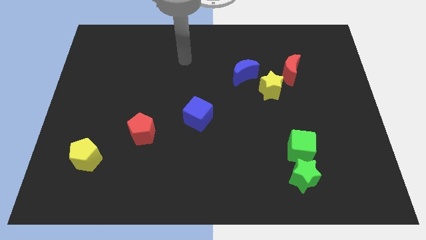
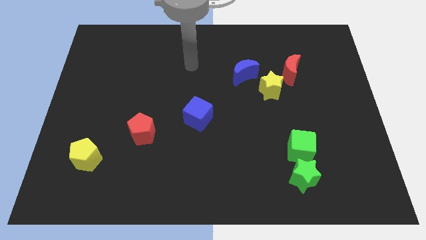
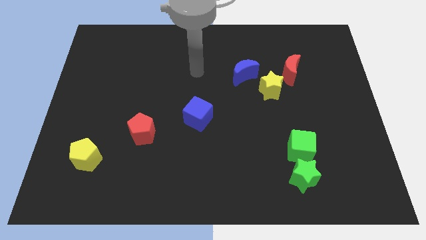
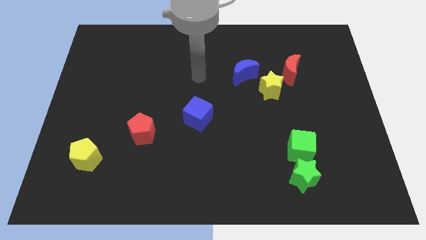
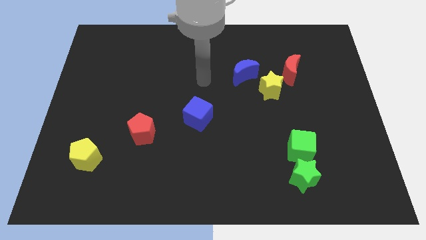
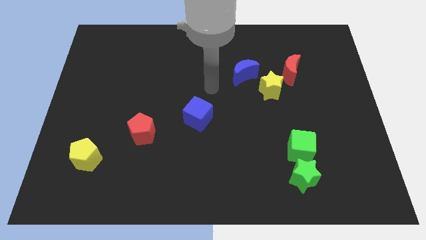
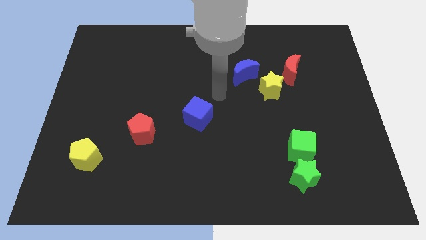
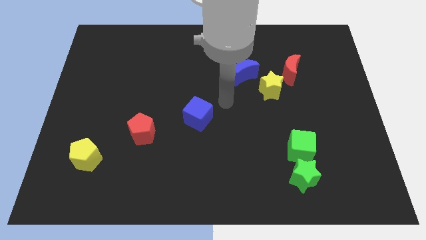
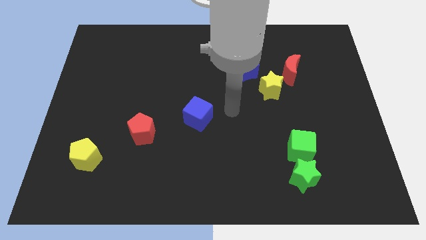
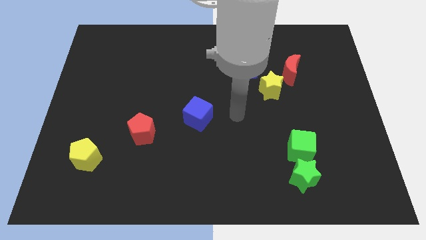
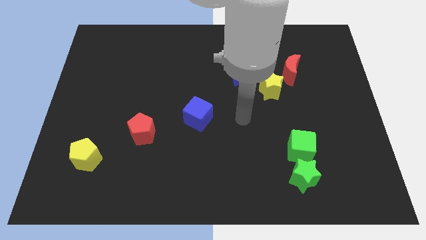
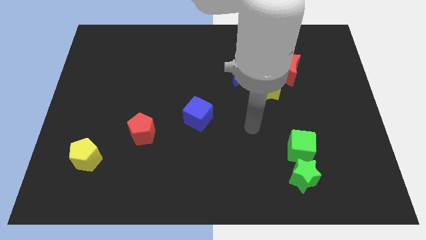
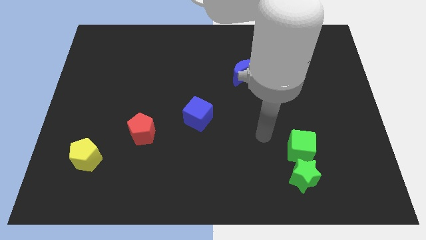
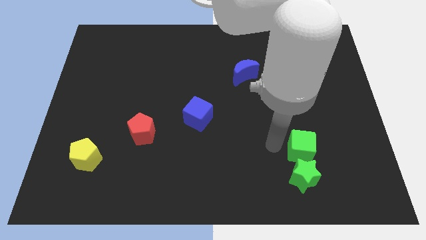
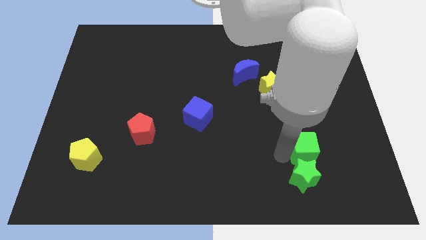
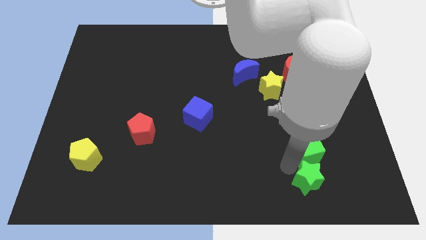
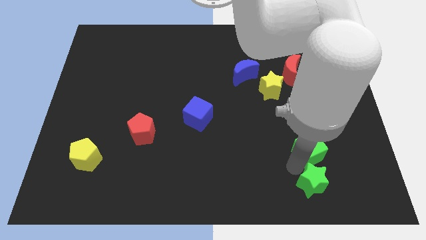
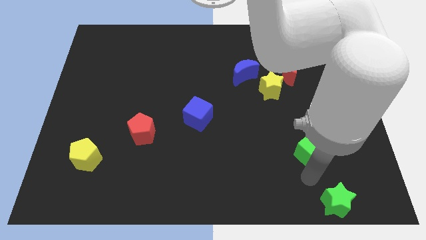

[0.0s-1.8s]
separate the green cube from the green star

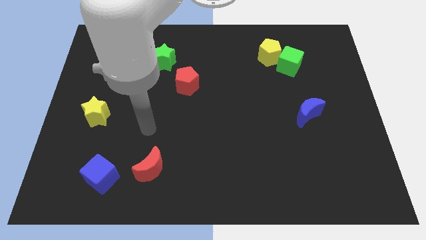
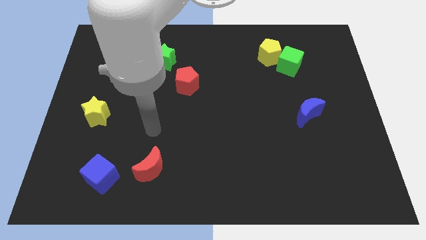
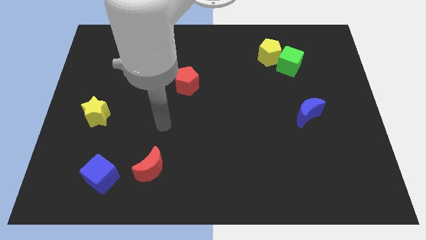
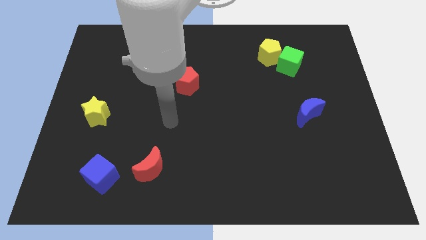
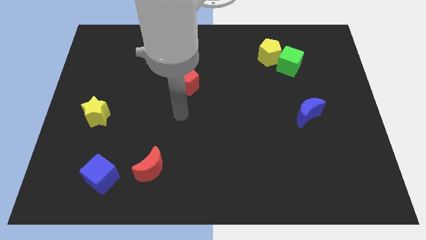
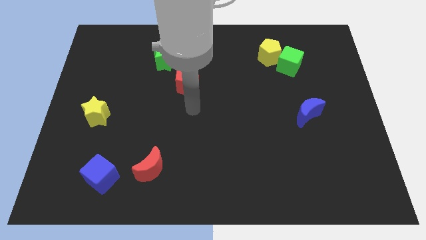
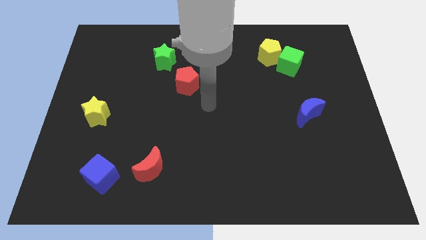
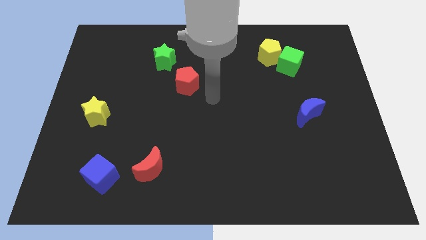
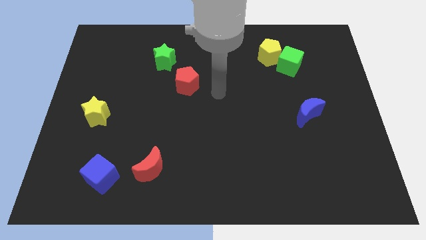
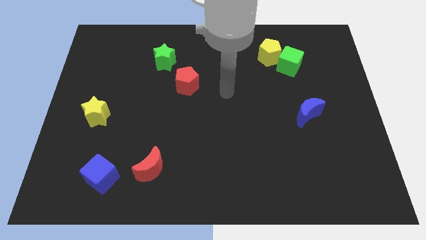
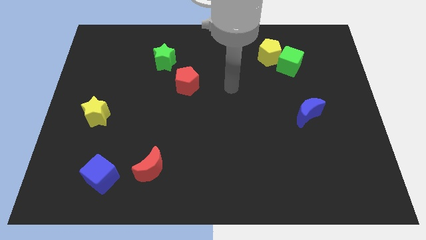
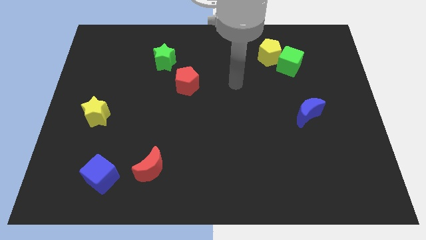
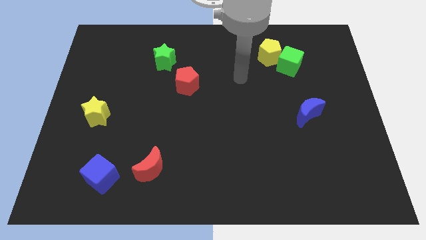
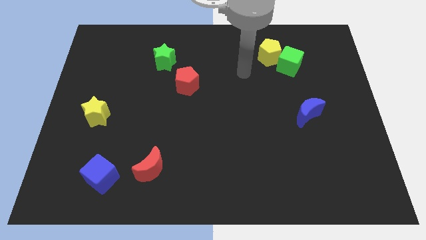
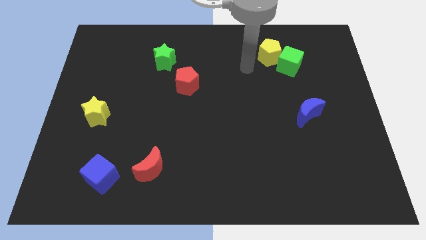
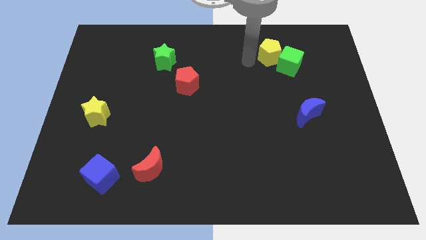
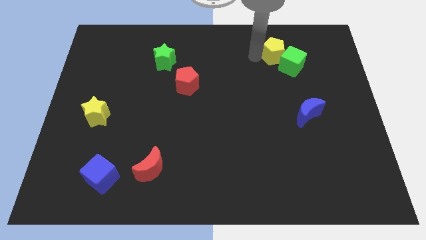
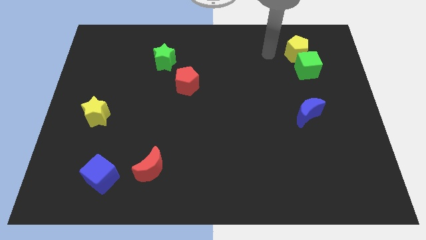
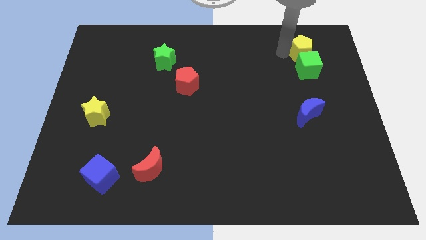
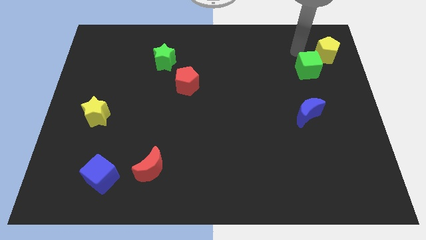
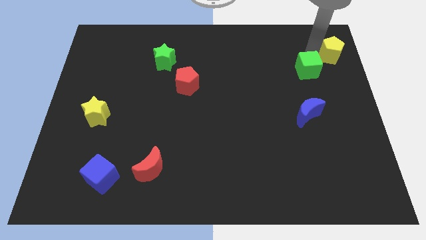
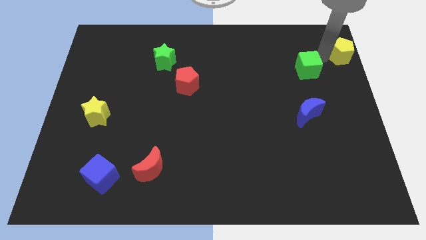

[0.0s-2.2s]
pull the green cube apart from the yellow pentagon

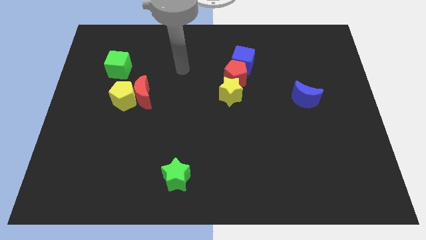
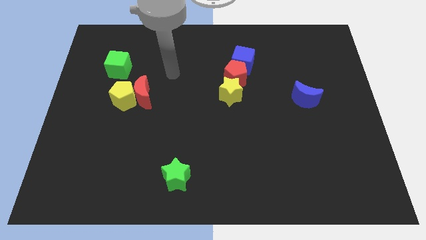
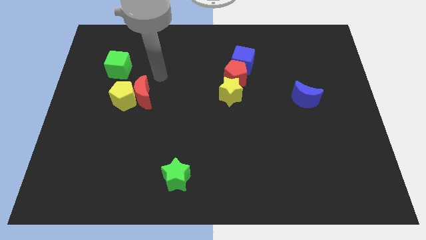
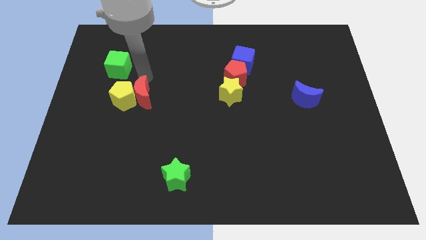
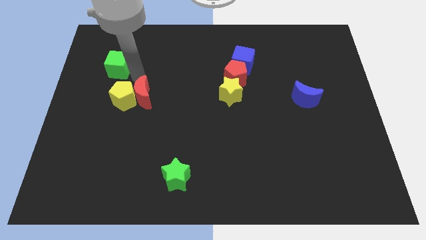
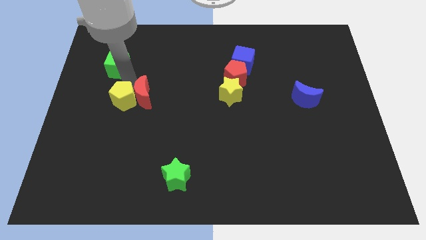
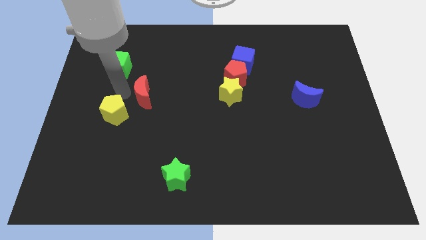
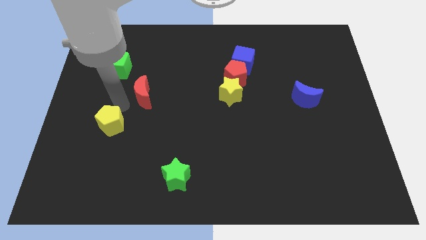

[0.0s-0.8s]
move the red moon away from the yellow pentagon

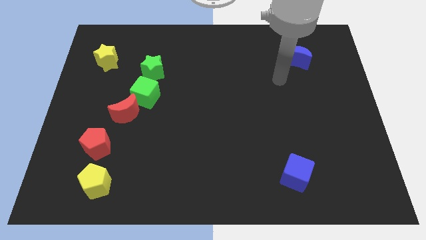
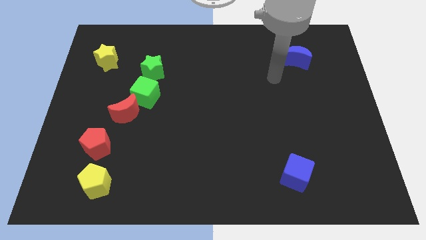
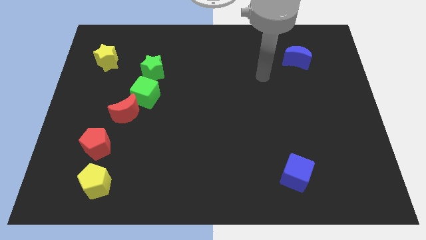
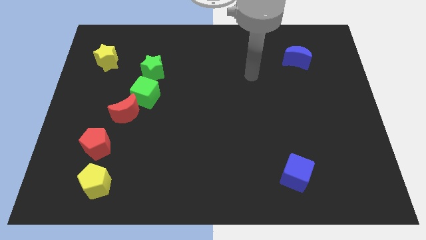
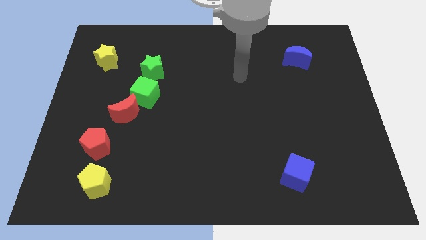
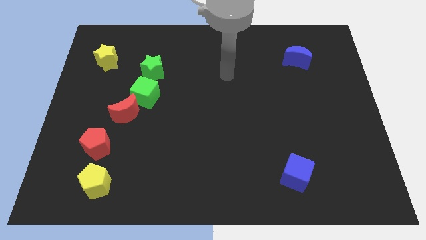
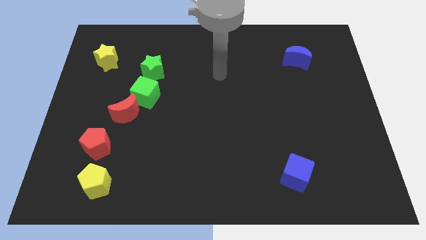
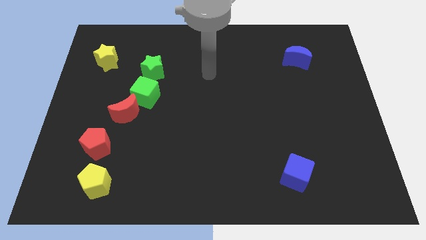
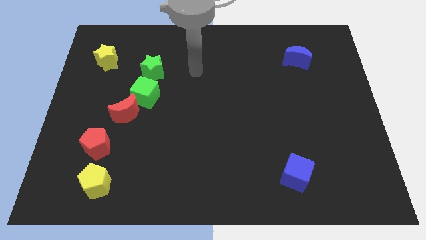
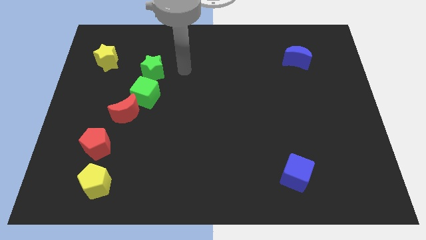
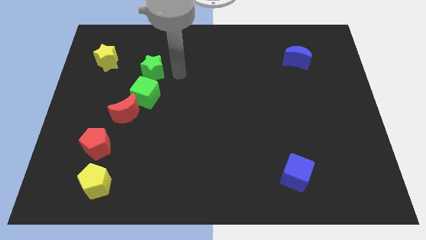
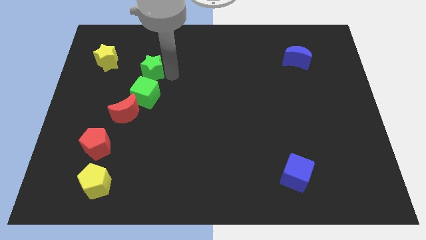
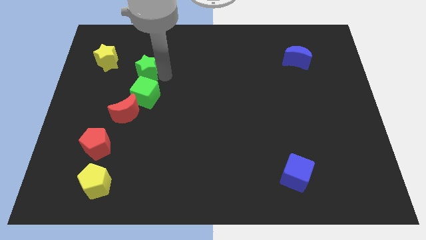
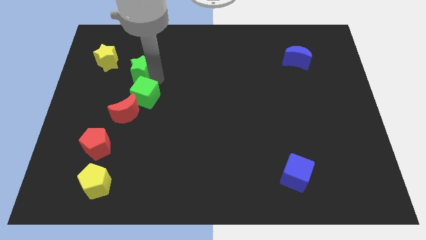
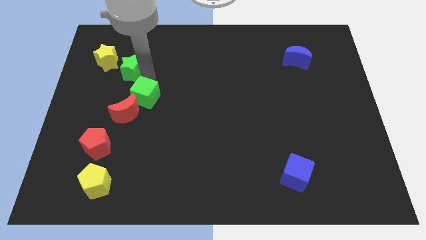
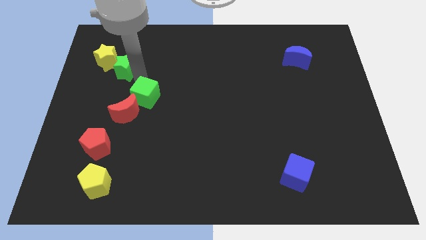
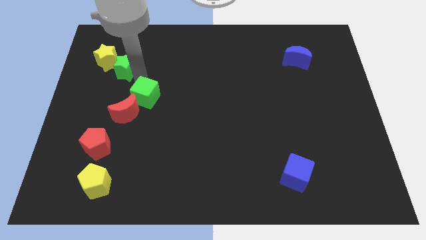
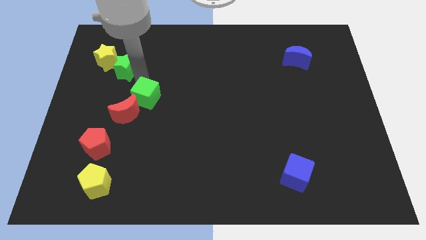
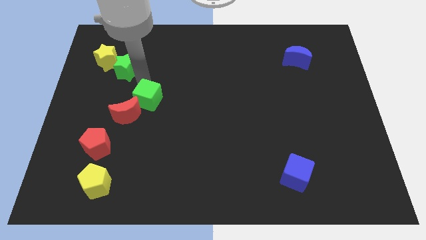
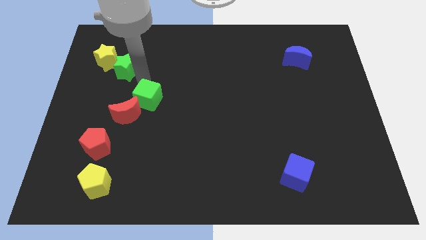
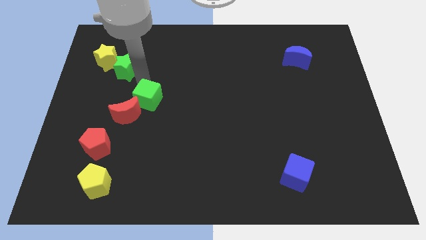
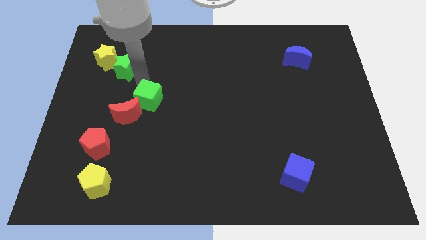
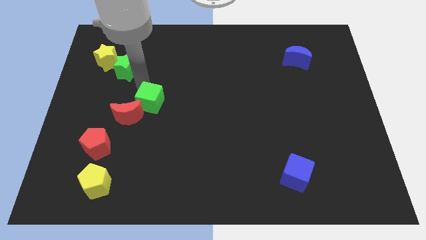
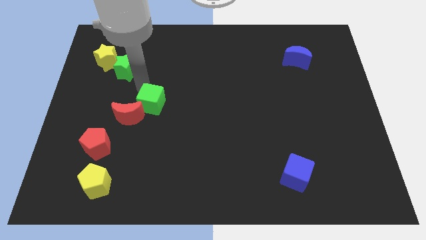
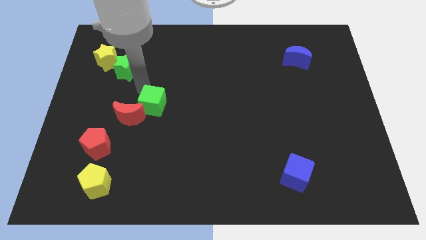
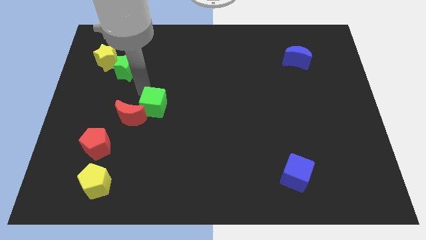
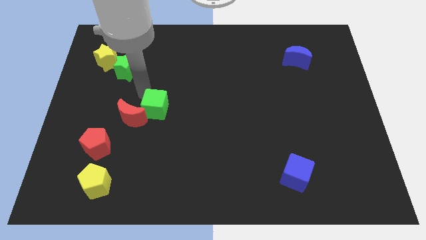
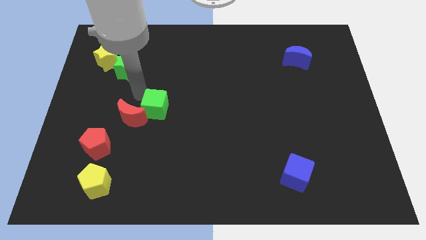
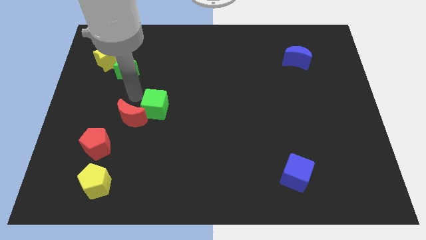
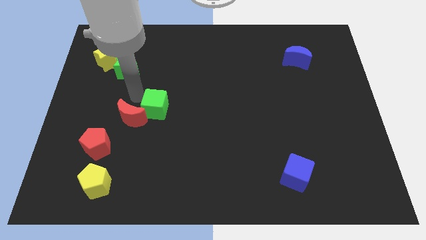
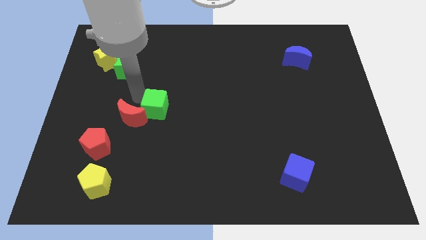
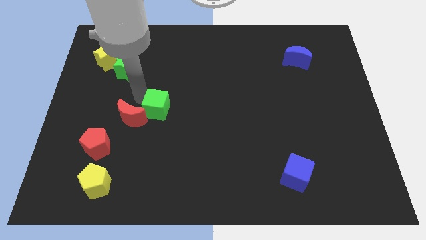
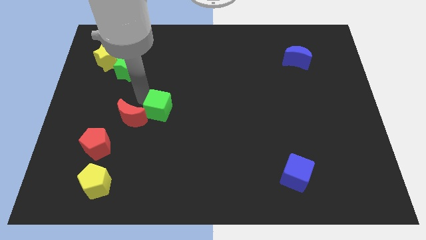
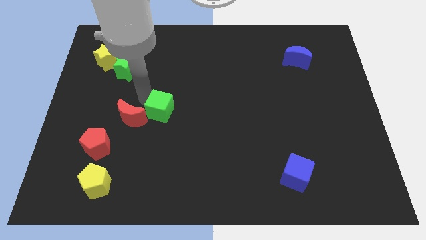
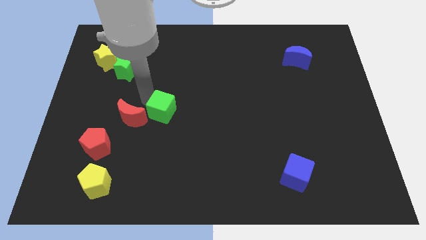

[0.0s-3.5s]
move the green cube away from the red moon and green star

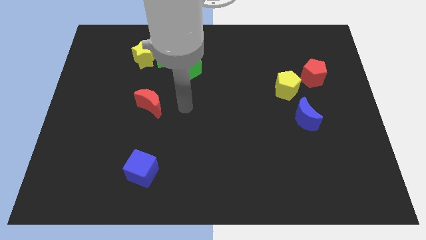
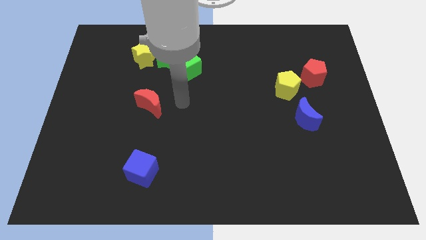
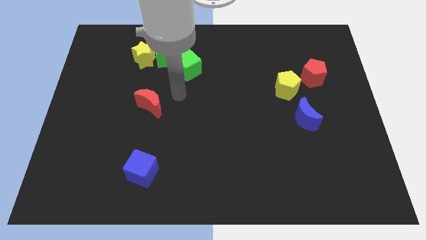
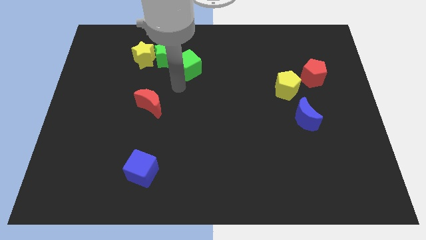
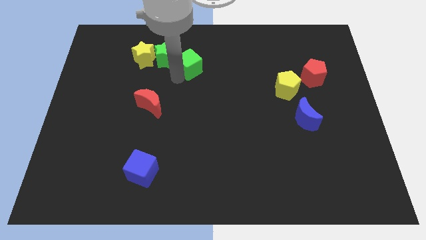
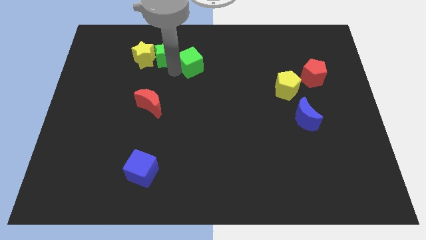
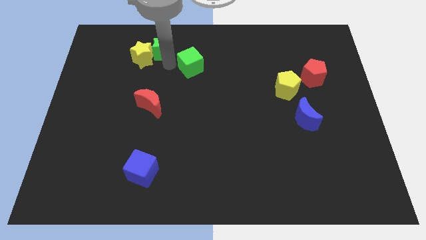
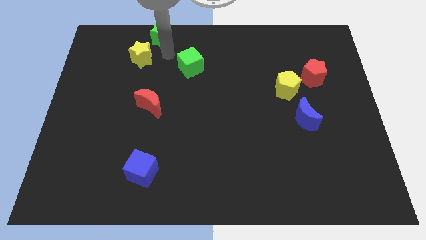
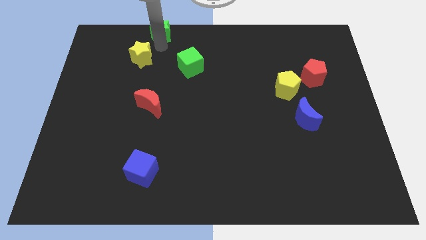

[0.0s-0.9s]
separate the yellow star from the green star

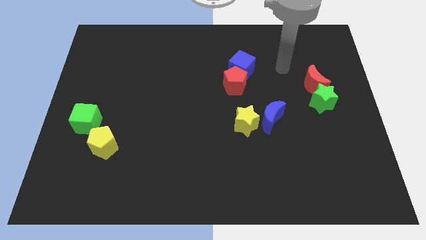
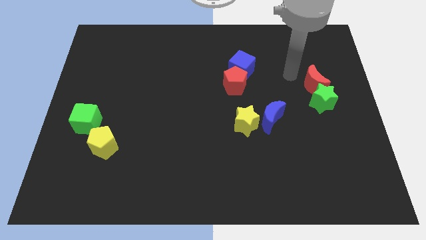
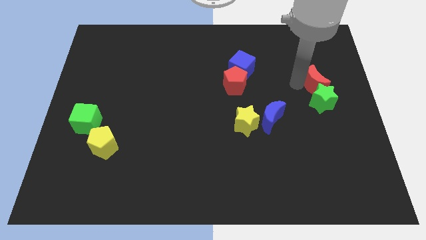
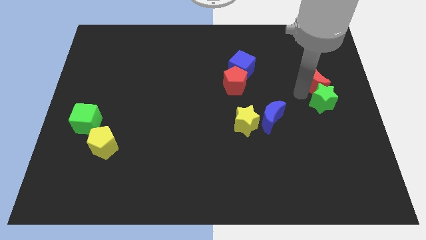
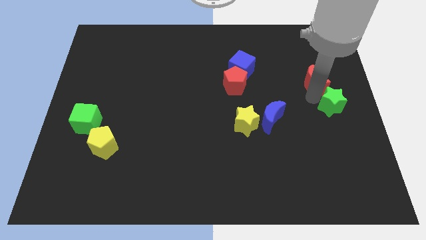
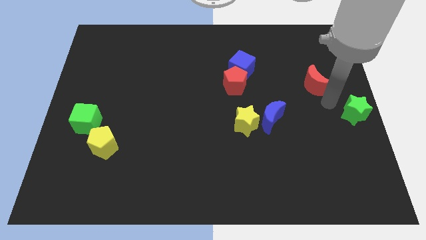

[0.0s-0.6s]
separate the red moon from the green star
